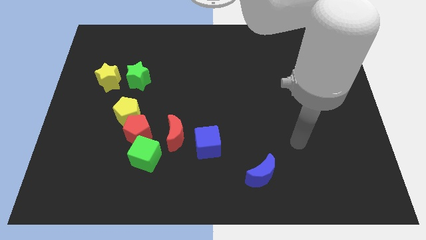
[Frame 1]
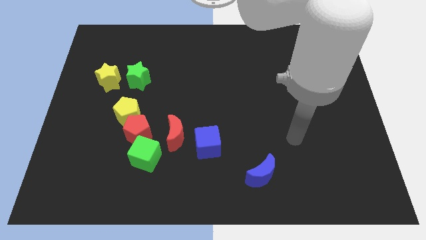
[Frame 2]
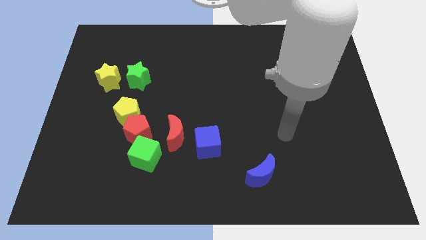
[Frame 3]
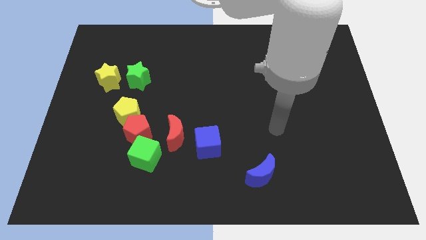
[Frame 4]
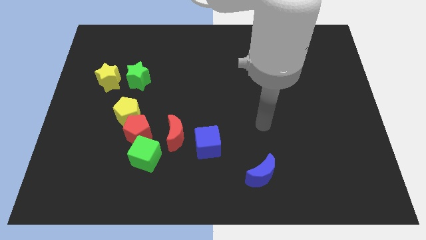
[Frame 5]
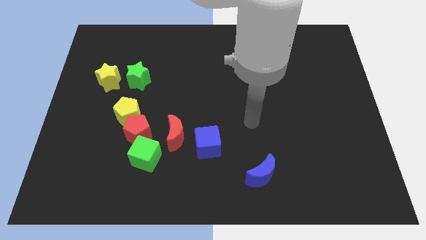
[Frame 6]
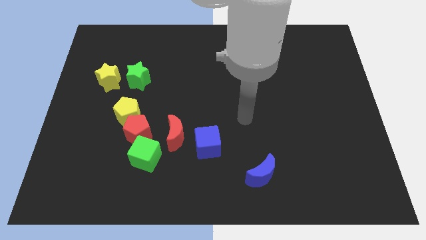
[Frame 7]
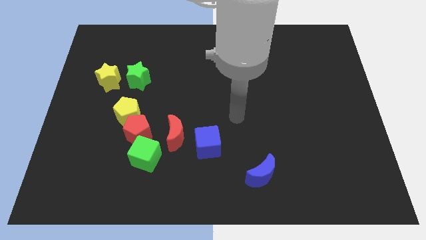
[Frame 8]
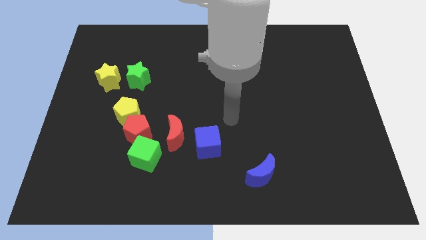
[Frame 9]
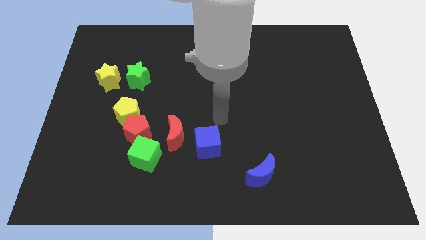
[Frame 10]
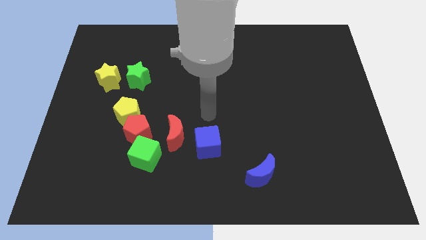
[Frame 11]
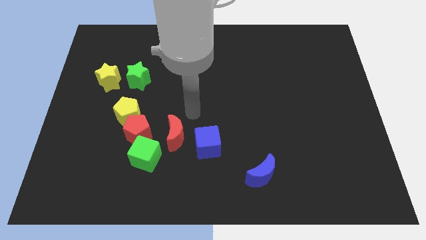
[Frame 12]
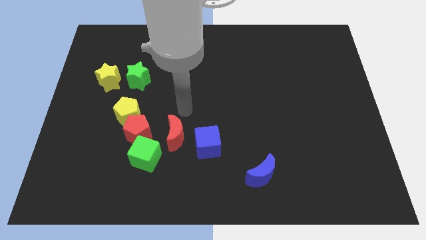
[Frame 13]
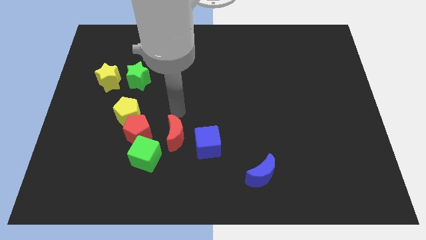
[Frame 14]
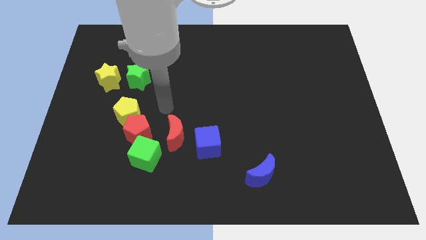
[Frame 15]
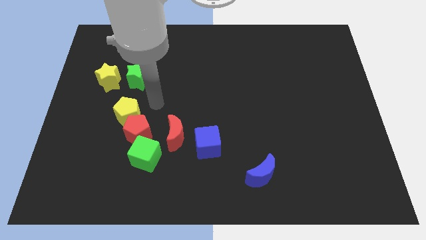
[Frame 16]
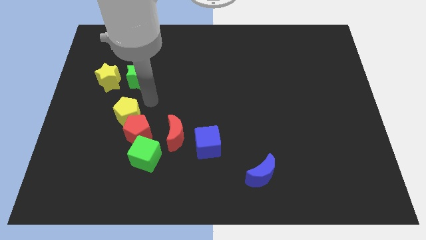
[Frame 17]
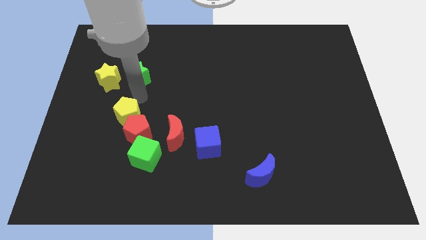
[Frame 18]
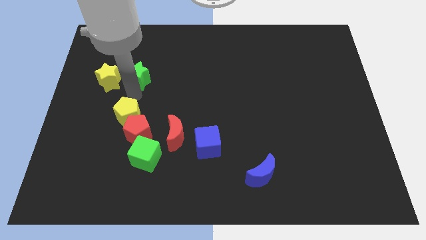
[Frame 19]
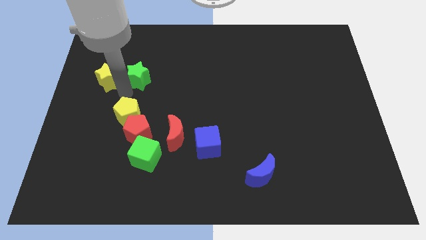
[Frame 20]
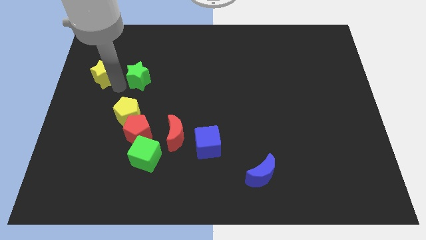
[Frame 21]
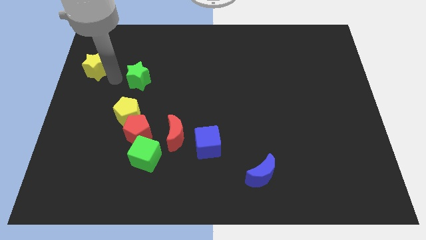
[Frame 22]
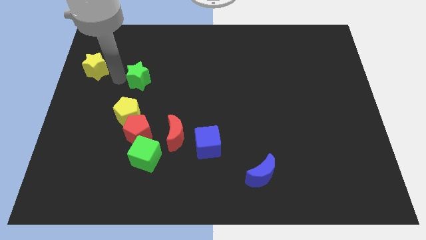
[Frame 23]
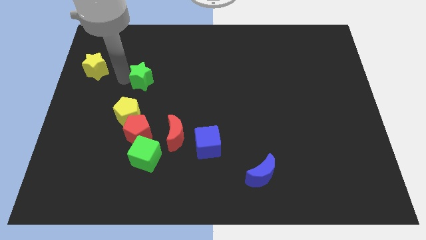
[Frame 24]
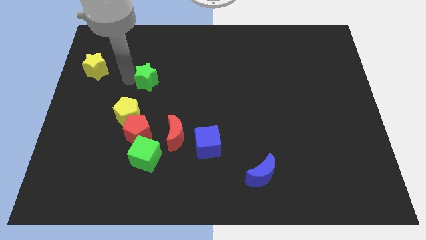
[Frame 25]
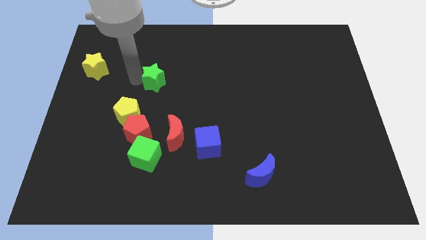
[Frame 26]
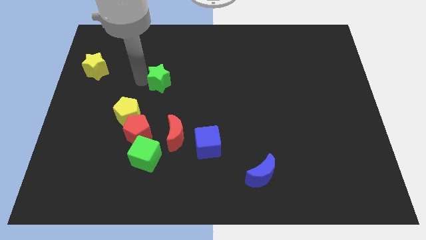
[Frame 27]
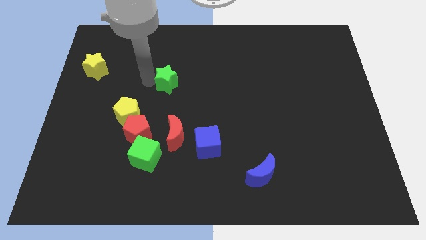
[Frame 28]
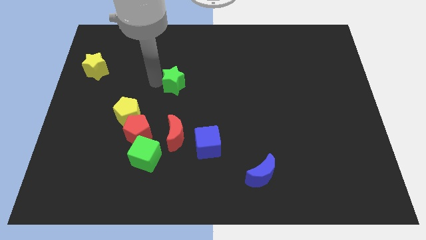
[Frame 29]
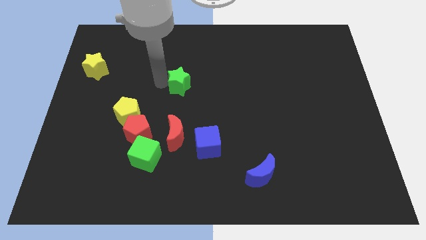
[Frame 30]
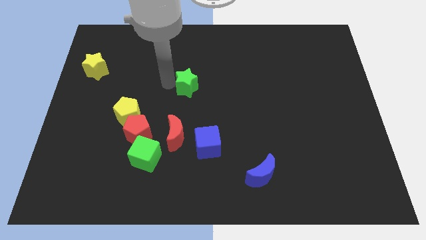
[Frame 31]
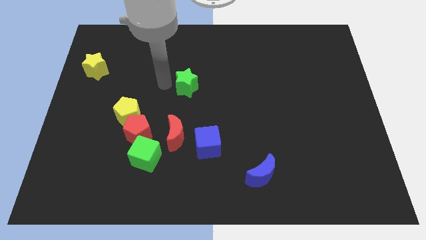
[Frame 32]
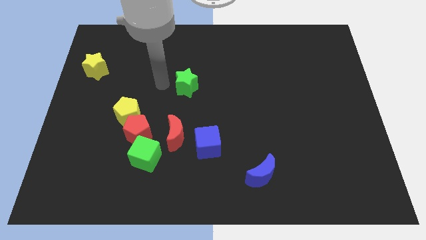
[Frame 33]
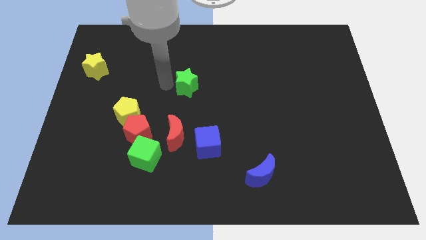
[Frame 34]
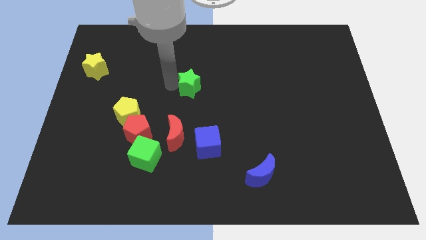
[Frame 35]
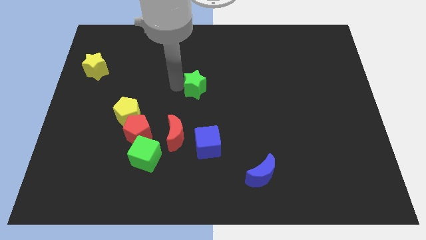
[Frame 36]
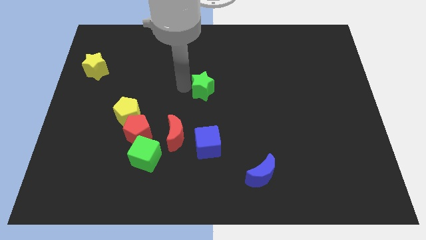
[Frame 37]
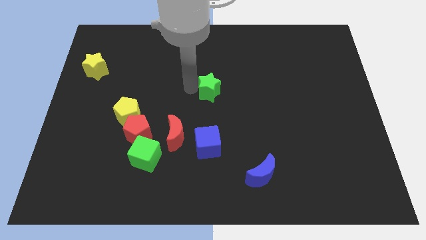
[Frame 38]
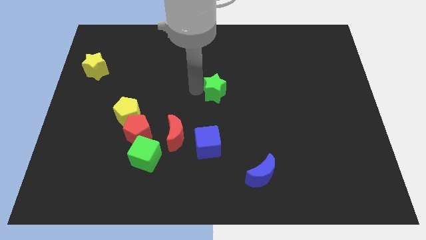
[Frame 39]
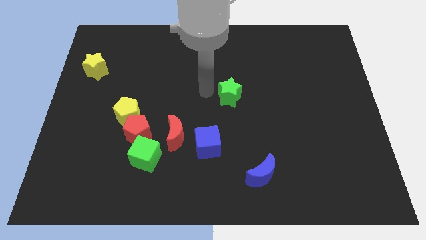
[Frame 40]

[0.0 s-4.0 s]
push the green star to the right

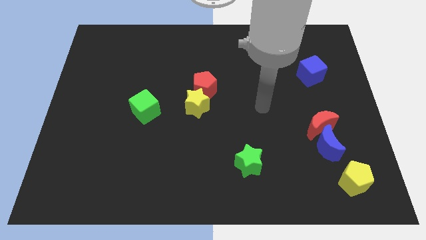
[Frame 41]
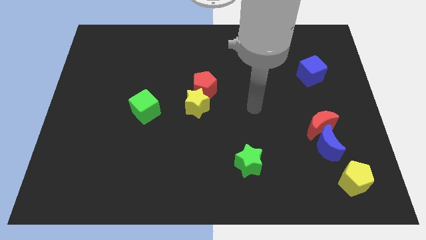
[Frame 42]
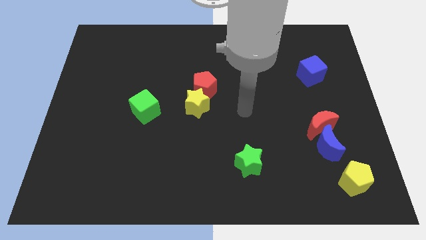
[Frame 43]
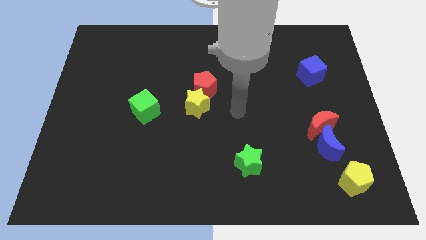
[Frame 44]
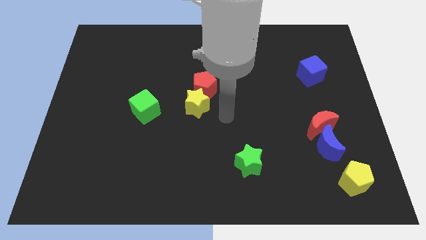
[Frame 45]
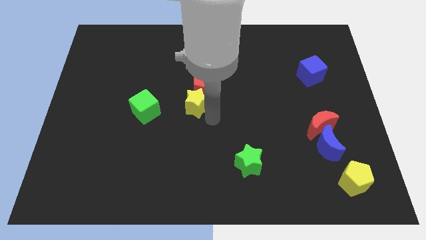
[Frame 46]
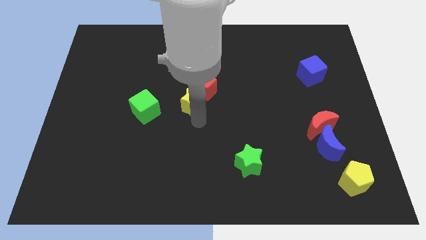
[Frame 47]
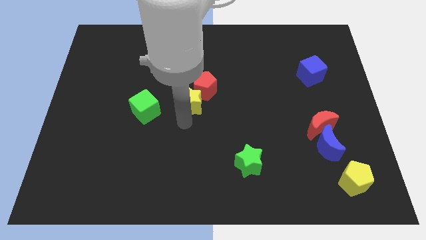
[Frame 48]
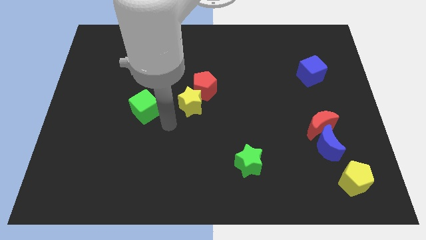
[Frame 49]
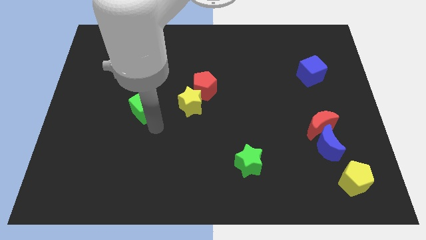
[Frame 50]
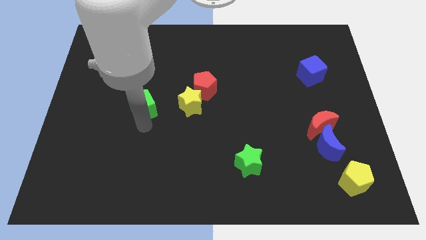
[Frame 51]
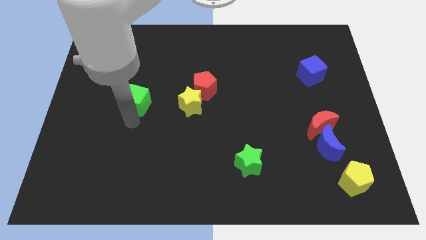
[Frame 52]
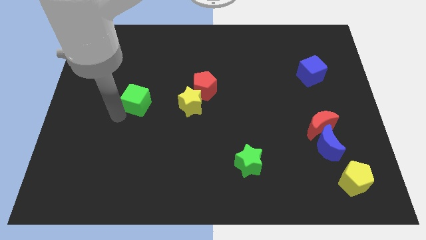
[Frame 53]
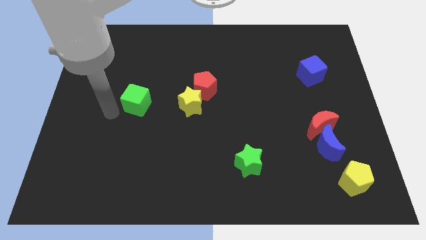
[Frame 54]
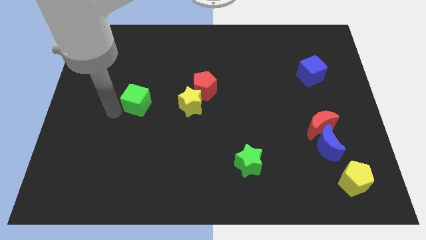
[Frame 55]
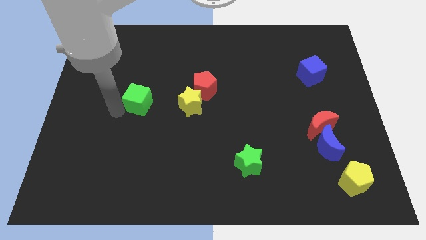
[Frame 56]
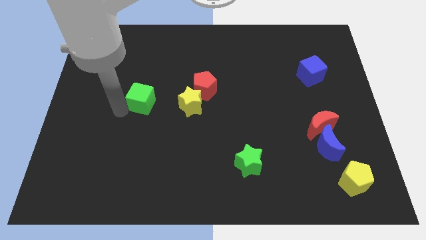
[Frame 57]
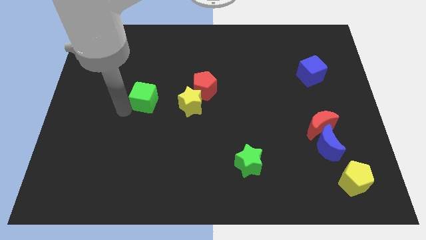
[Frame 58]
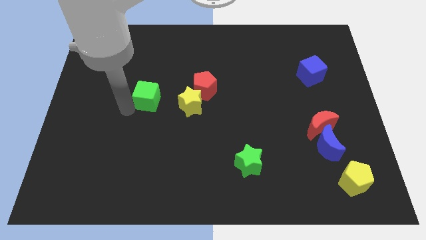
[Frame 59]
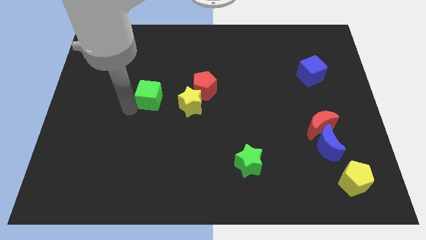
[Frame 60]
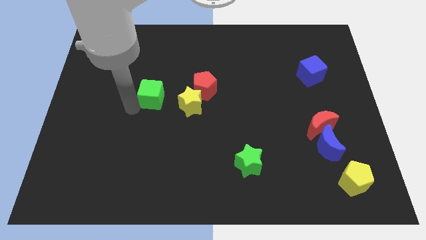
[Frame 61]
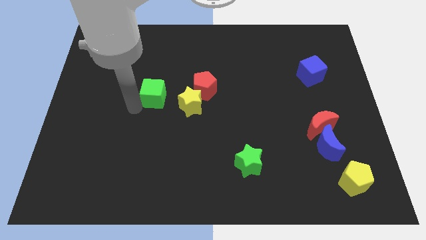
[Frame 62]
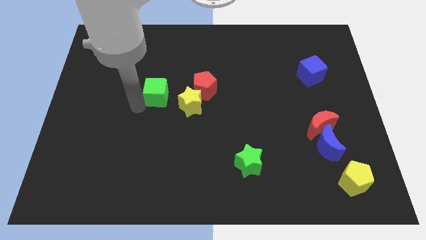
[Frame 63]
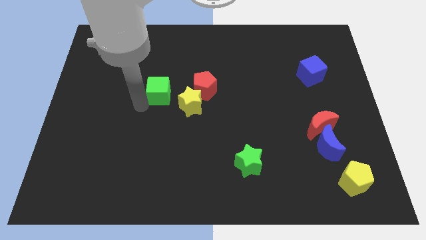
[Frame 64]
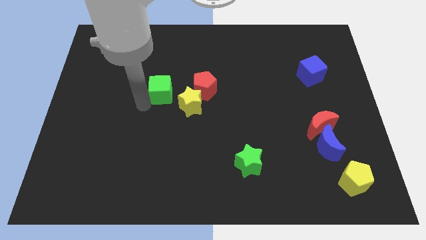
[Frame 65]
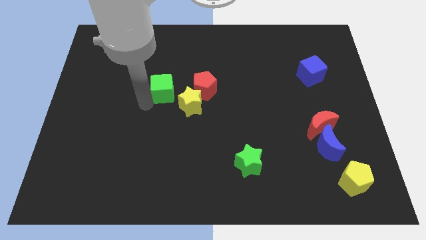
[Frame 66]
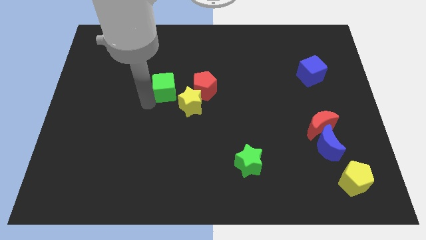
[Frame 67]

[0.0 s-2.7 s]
slightly move the green cube diagonally up and to the right

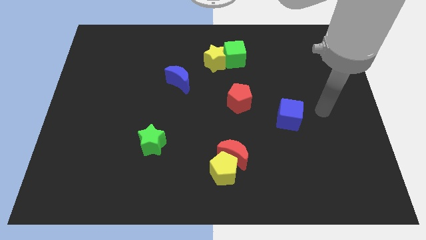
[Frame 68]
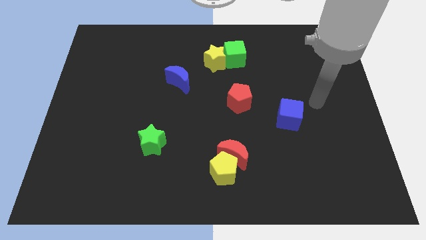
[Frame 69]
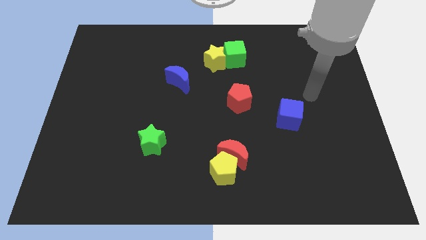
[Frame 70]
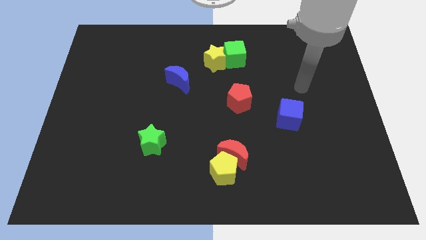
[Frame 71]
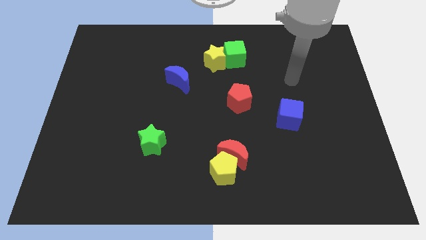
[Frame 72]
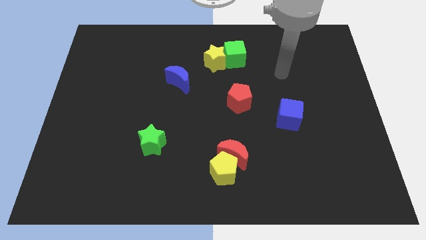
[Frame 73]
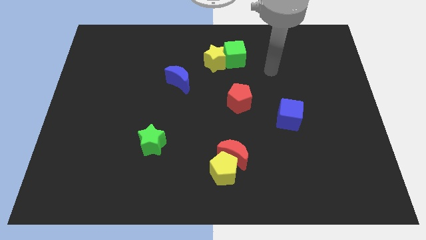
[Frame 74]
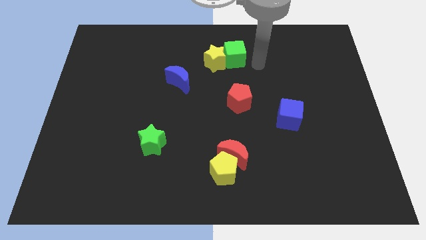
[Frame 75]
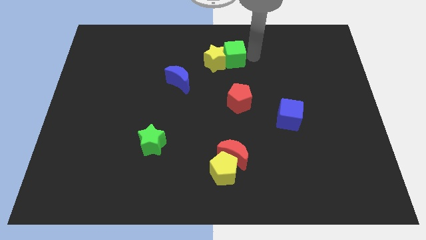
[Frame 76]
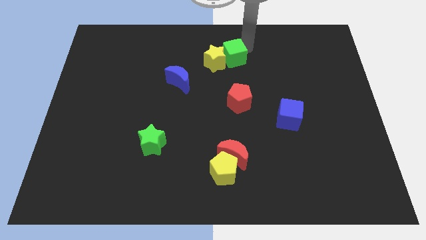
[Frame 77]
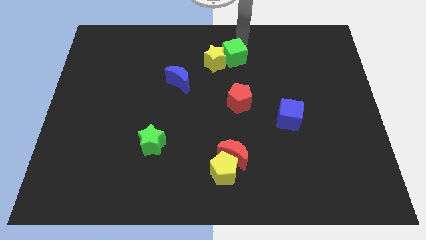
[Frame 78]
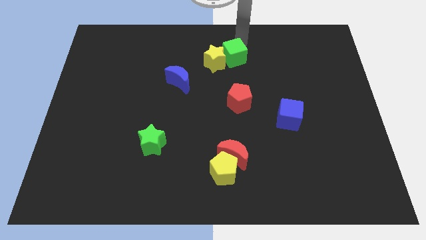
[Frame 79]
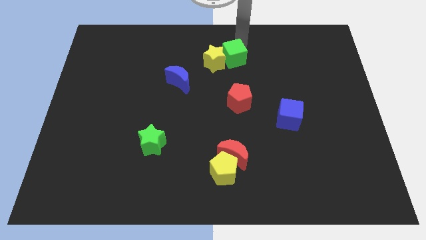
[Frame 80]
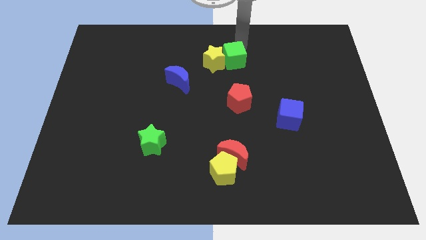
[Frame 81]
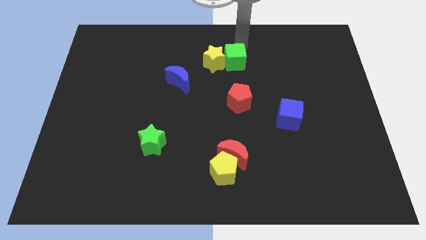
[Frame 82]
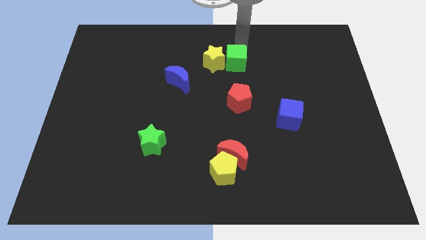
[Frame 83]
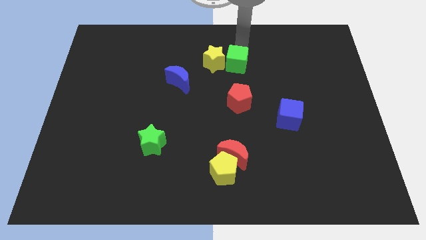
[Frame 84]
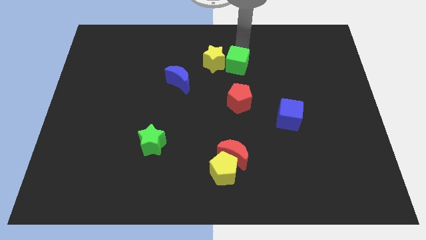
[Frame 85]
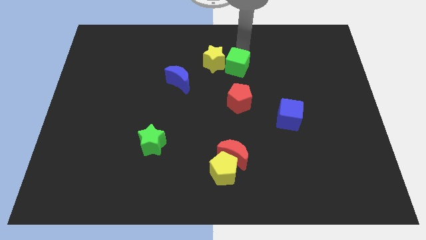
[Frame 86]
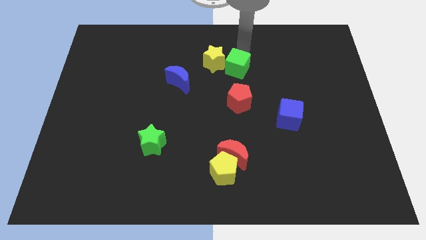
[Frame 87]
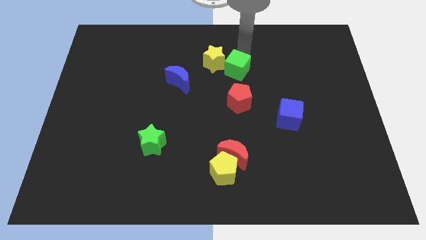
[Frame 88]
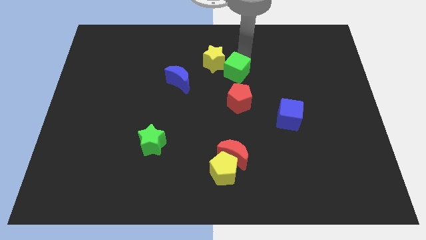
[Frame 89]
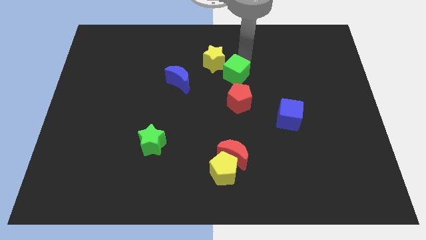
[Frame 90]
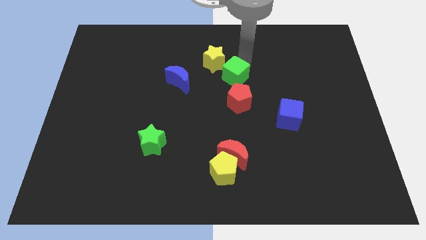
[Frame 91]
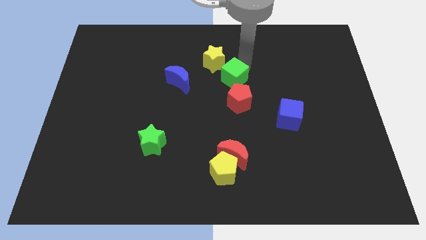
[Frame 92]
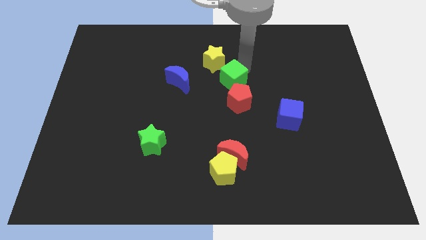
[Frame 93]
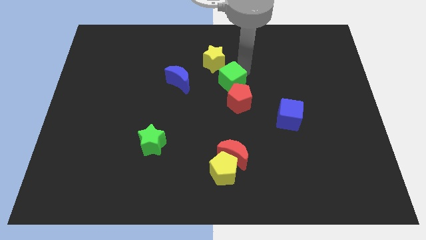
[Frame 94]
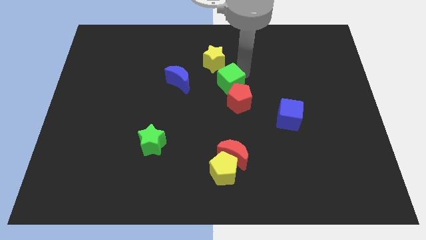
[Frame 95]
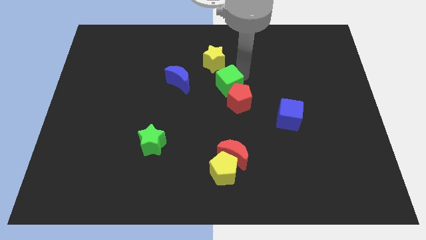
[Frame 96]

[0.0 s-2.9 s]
slide the green cube slightly downwards and then to the left
